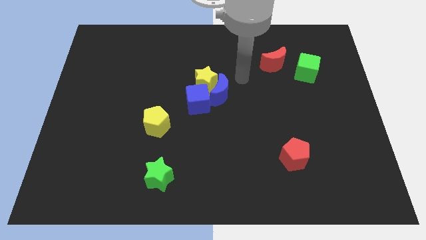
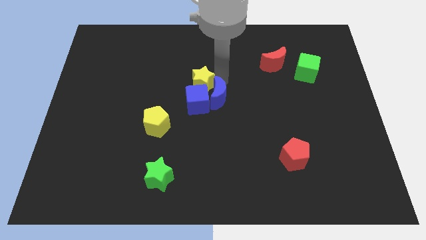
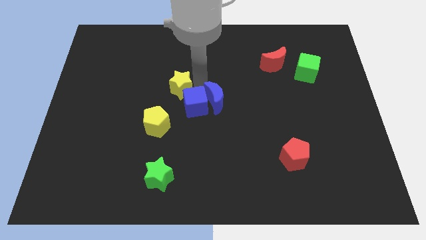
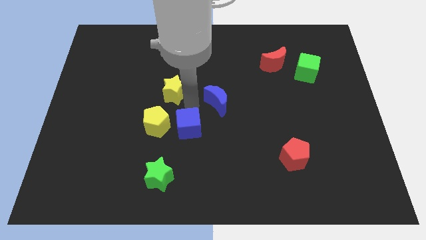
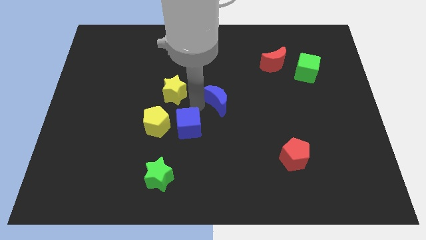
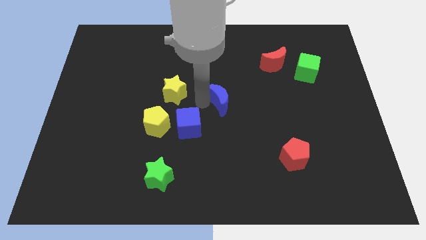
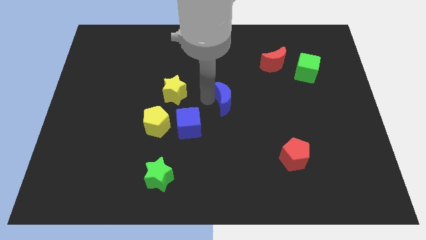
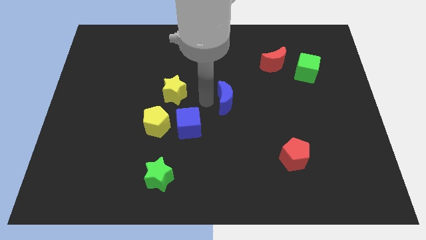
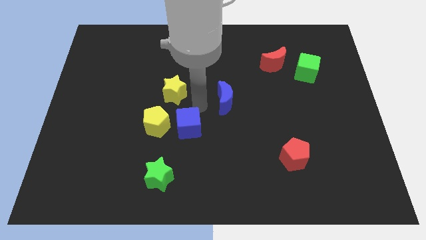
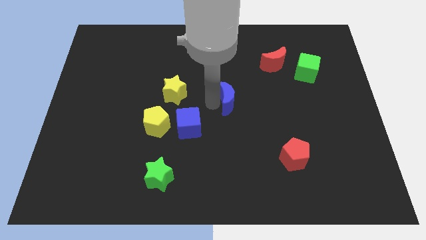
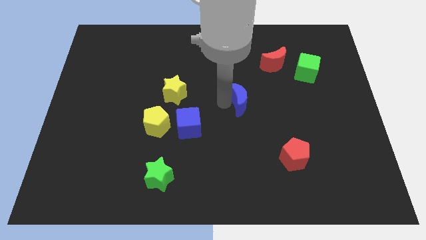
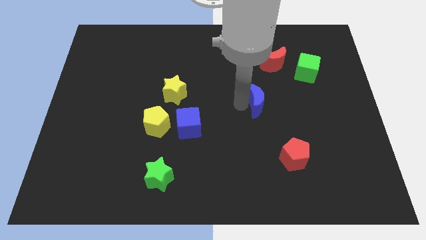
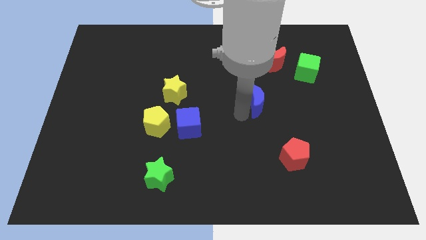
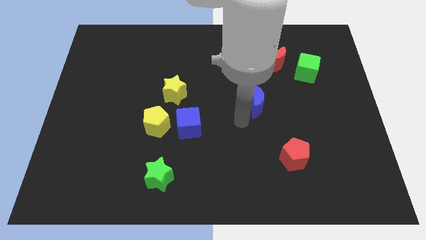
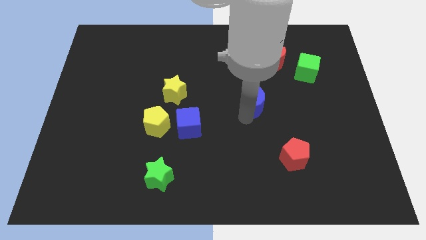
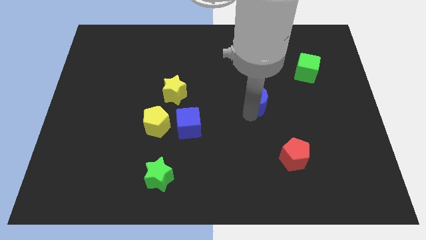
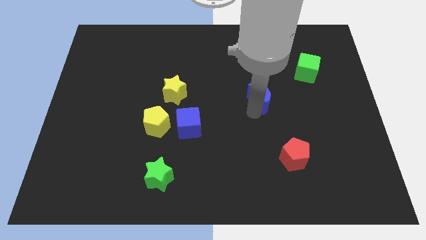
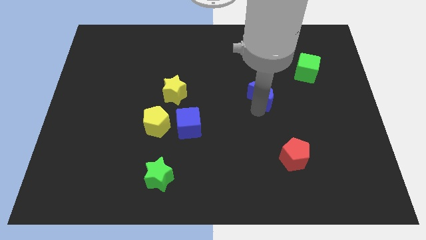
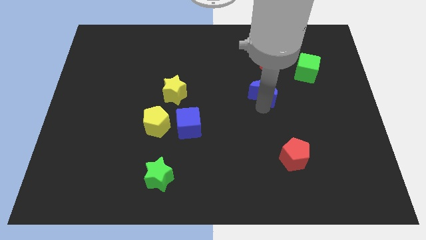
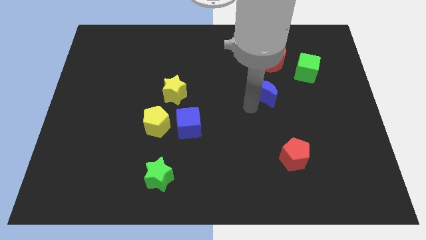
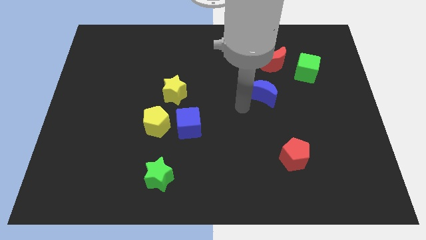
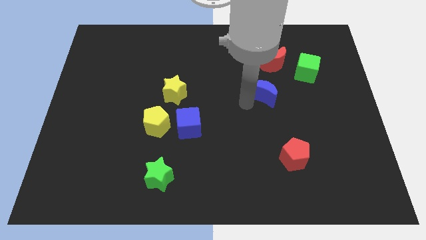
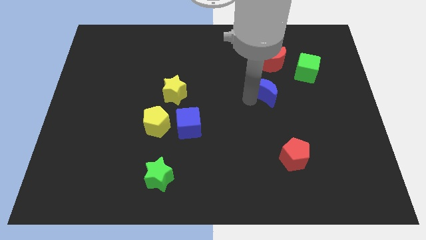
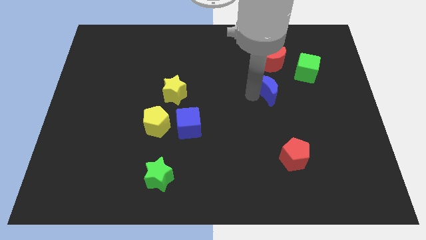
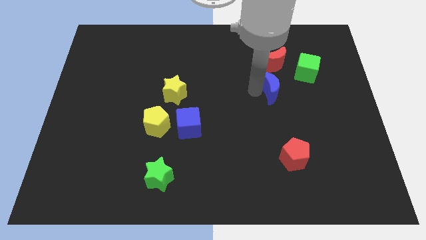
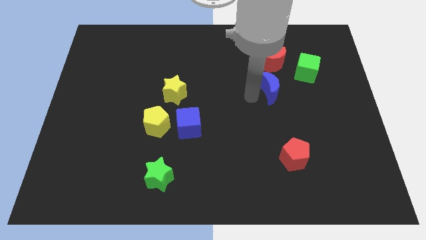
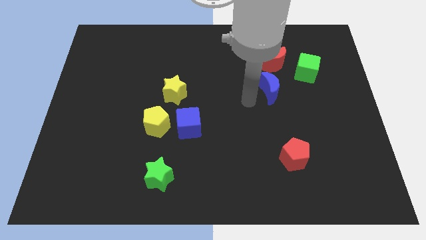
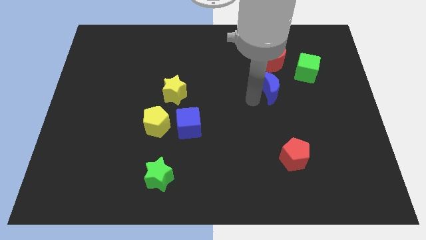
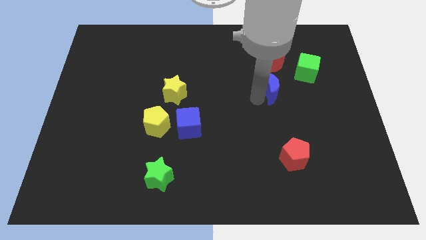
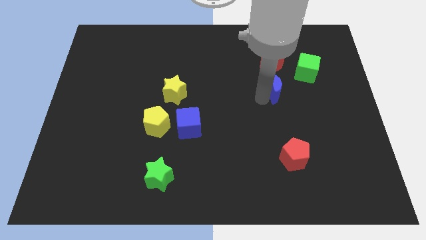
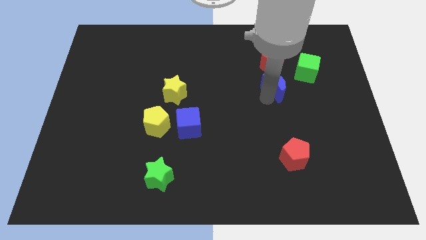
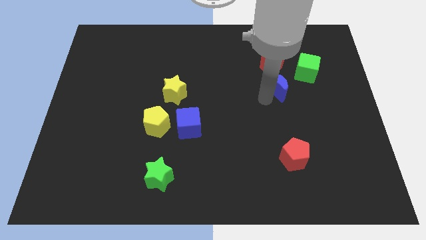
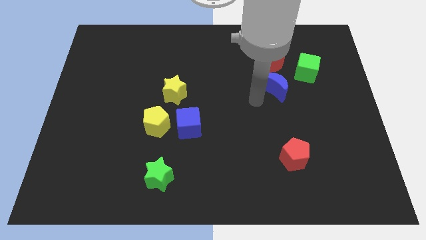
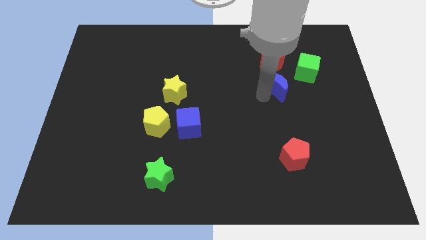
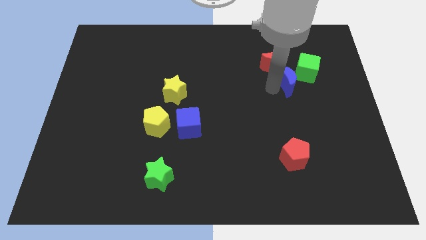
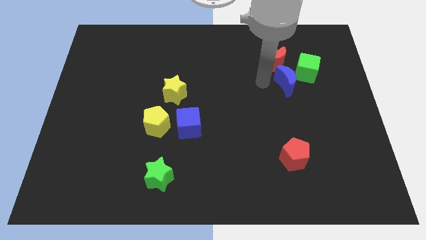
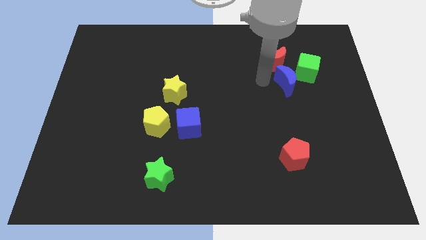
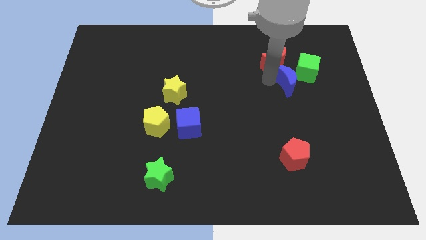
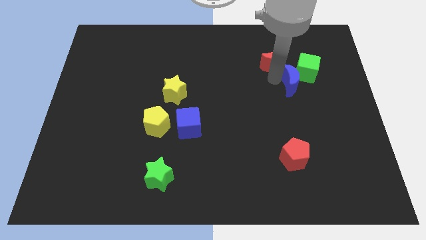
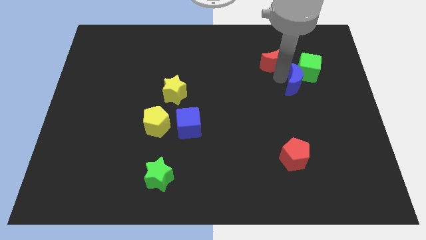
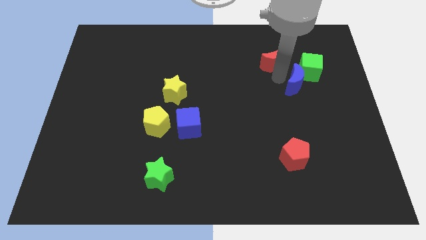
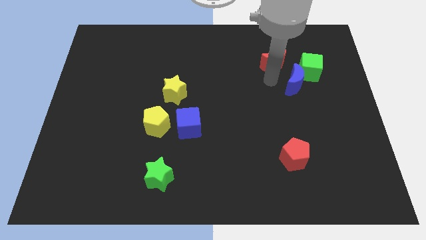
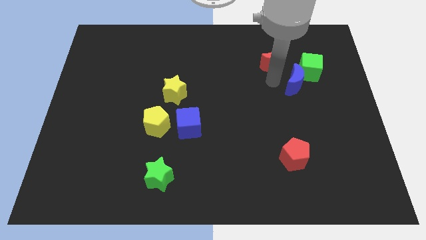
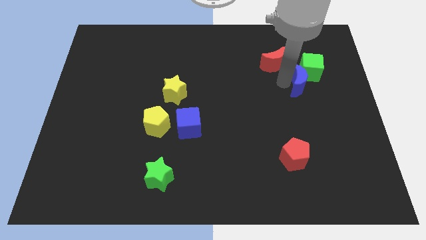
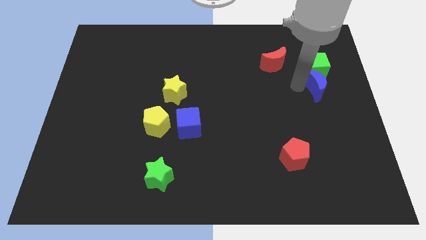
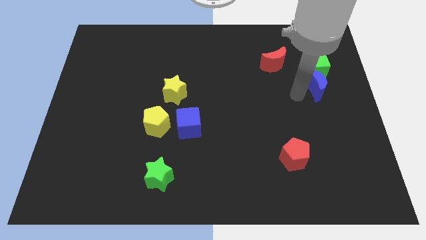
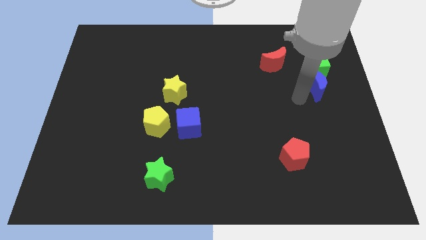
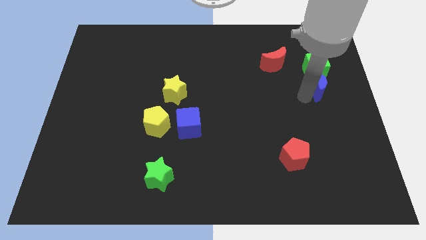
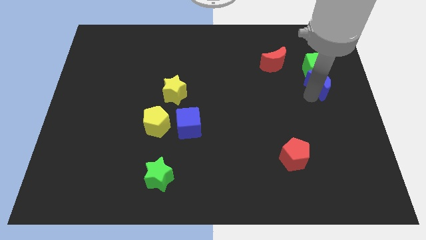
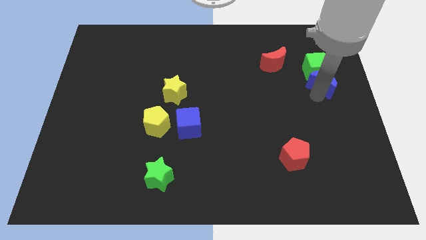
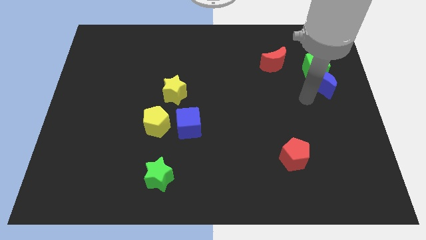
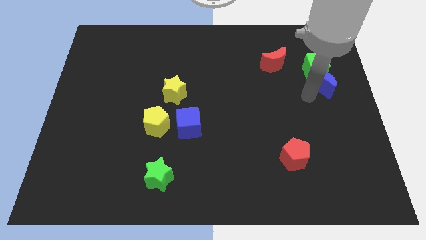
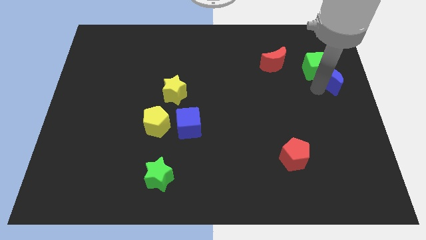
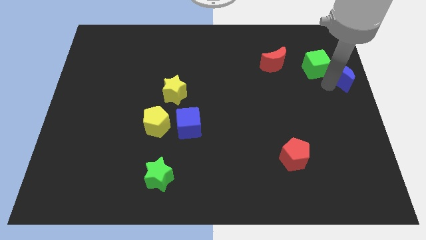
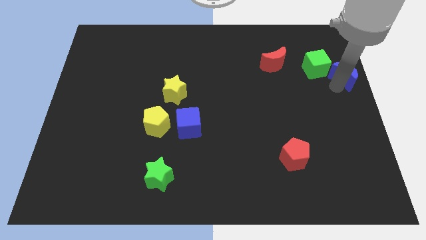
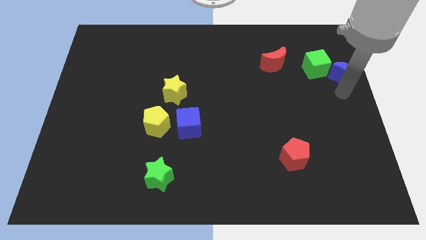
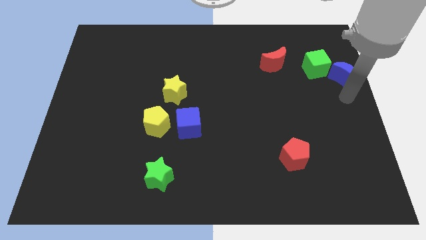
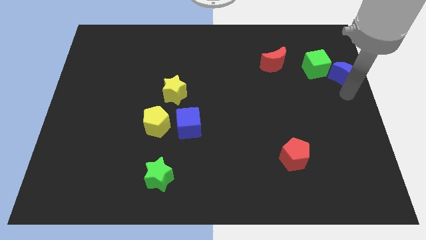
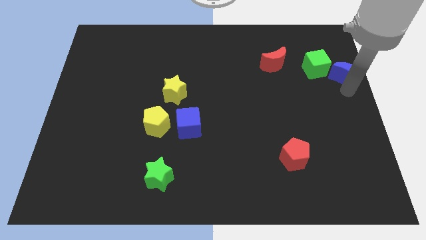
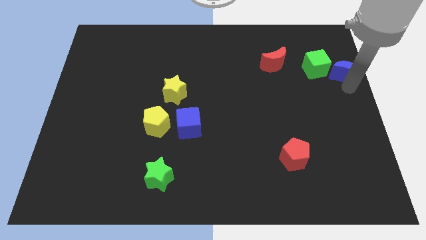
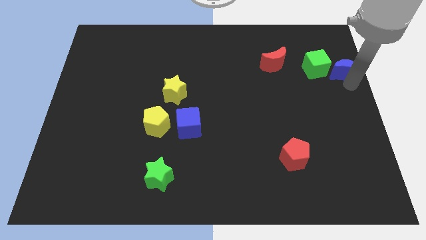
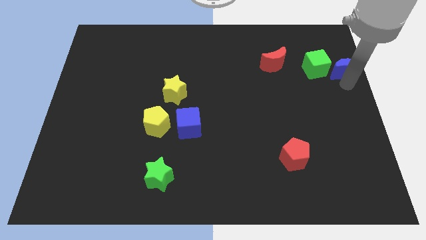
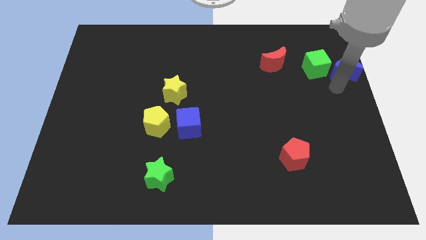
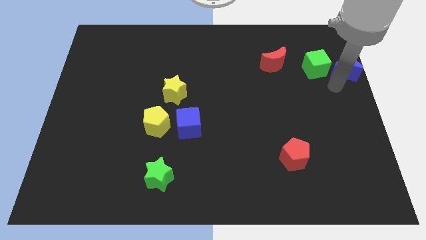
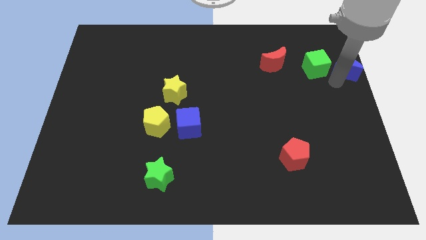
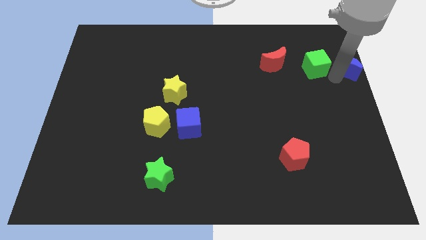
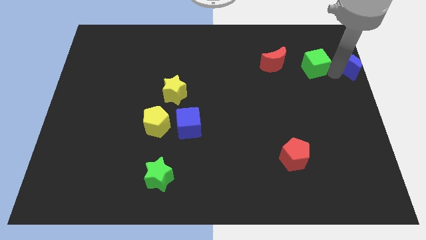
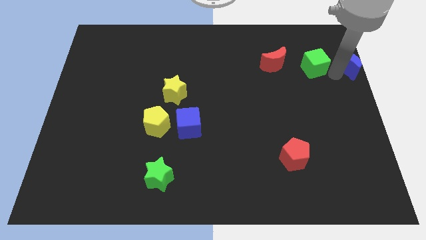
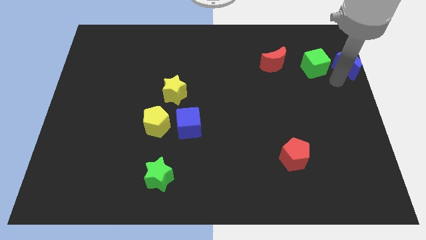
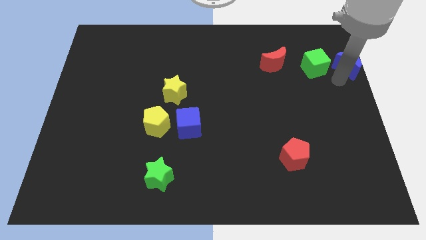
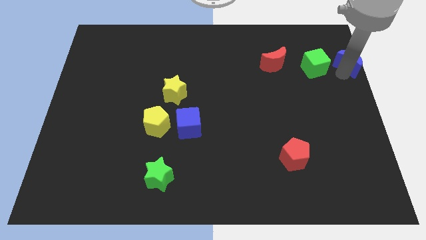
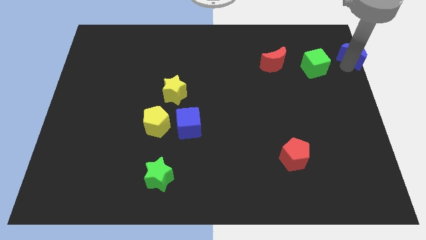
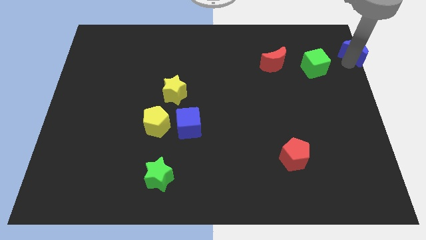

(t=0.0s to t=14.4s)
move the blue moon to the upper right corner

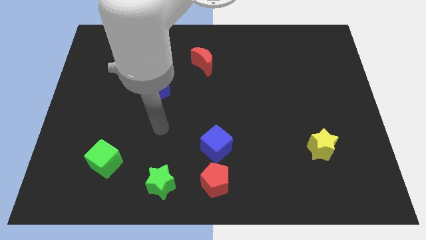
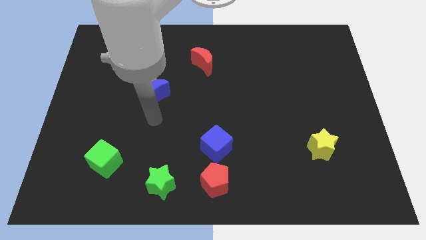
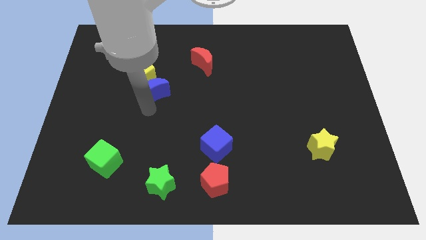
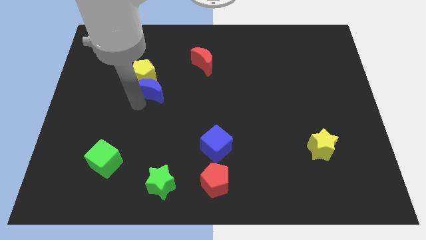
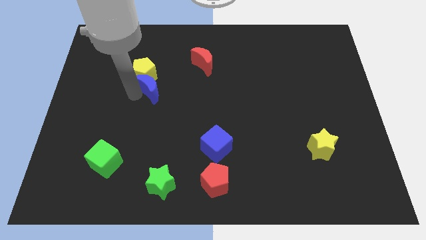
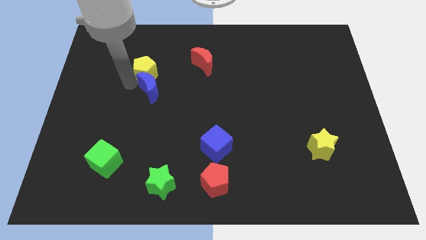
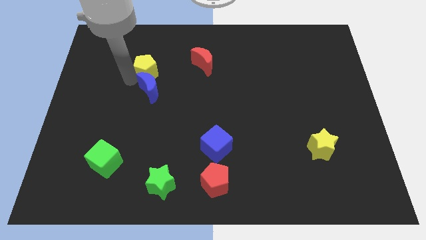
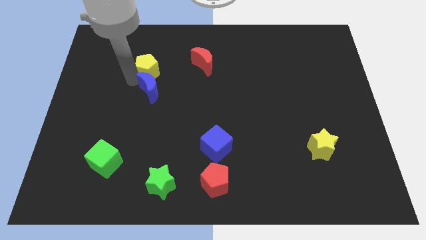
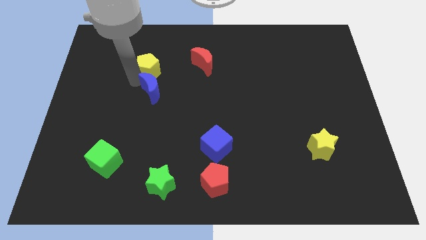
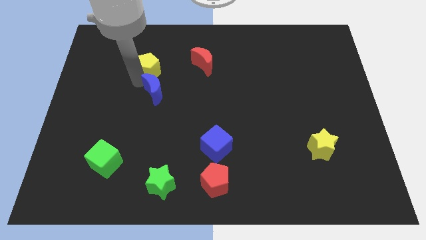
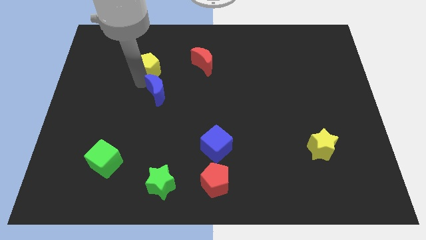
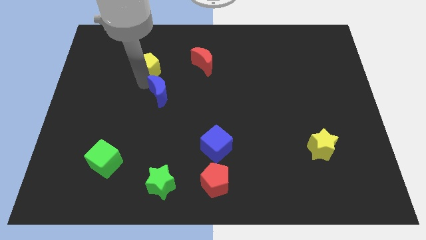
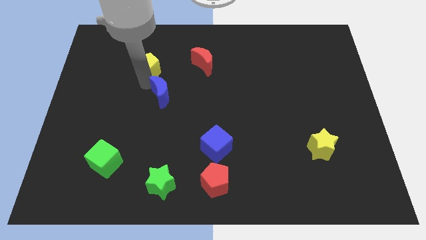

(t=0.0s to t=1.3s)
slide the blue moon to the middle of the board
